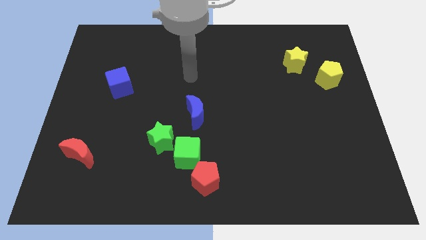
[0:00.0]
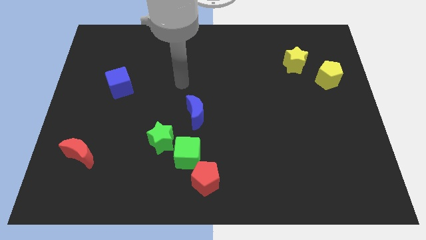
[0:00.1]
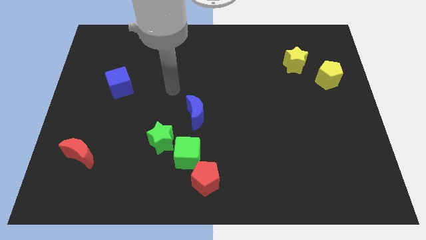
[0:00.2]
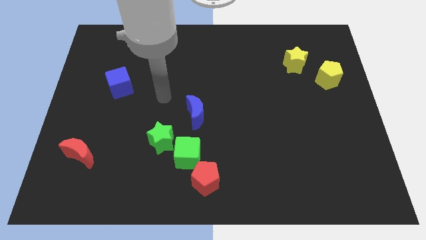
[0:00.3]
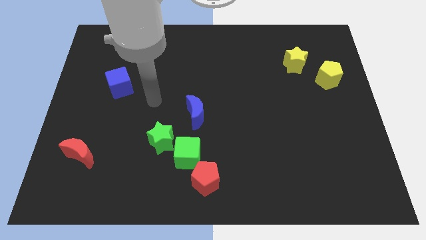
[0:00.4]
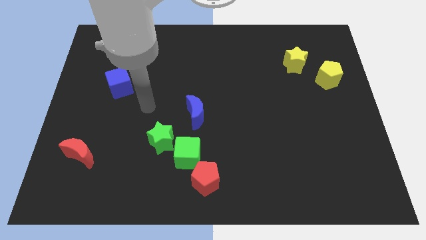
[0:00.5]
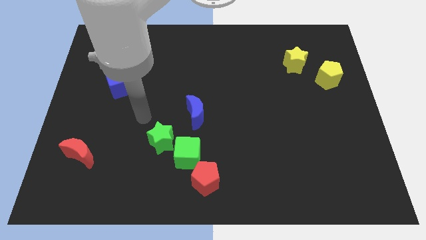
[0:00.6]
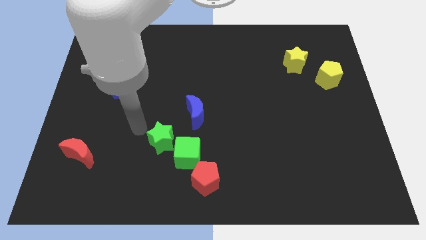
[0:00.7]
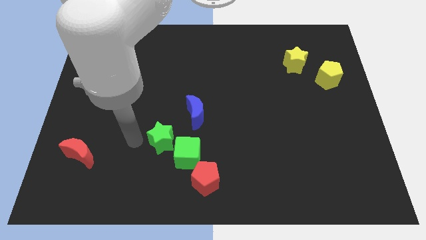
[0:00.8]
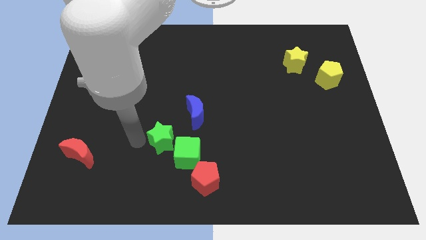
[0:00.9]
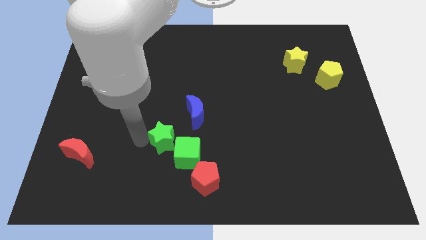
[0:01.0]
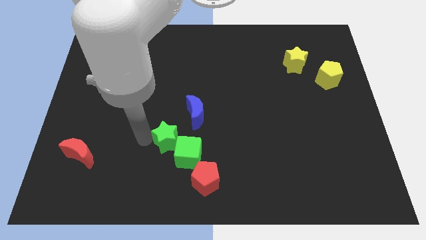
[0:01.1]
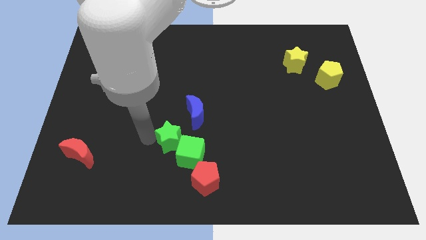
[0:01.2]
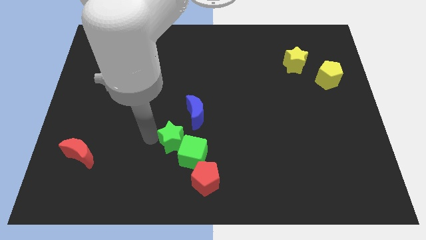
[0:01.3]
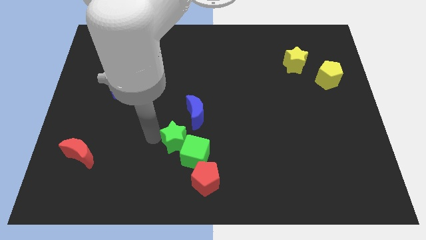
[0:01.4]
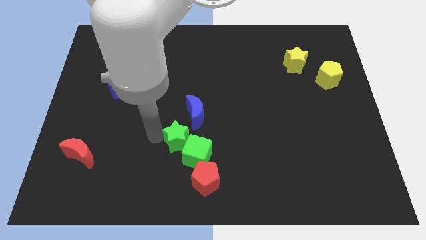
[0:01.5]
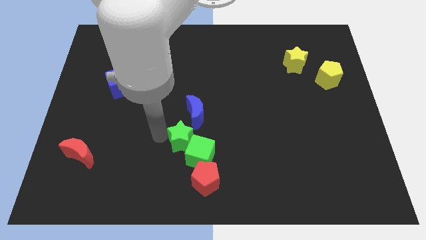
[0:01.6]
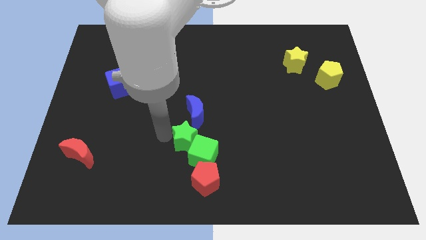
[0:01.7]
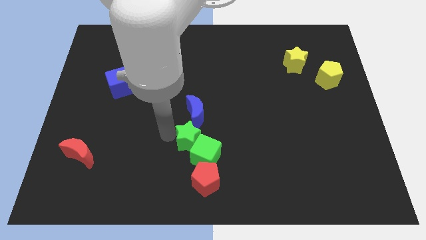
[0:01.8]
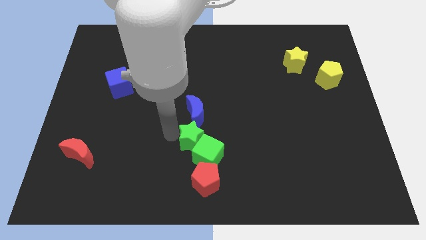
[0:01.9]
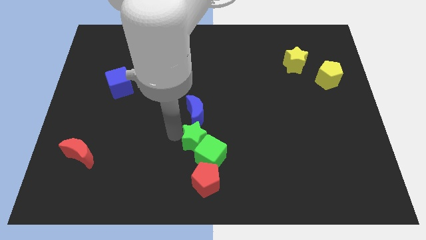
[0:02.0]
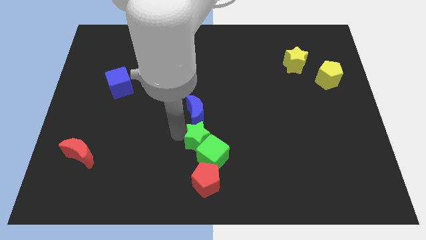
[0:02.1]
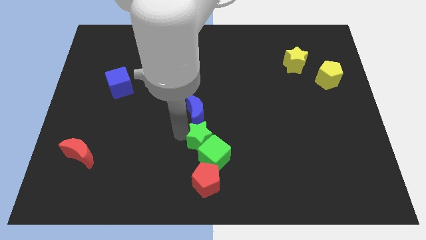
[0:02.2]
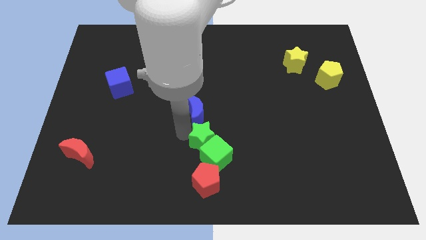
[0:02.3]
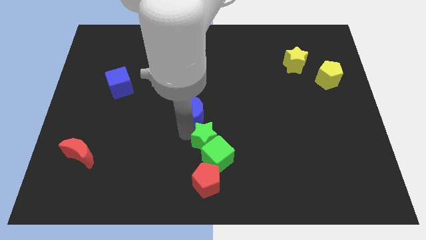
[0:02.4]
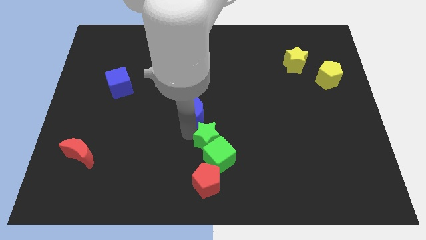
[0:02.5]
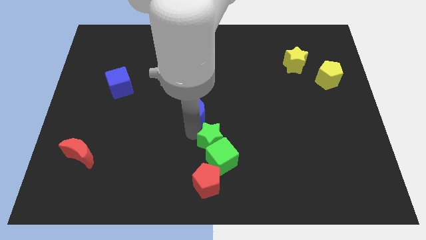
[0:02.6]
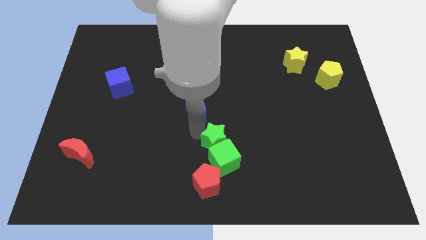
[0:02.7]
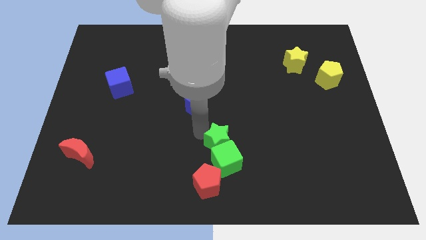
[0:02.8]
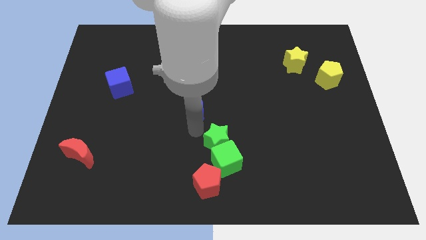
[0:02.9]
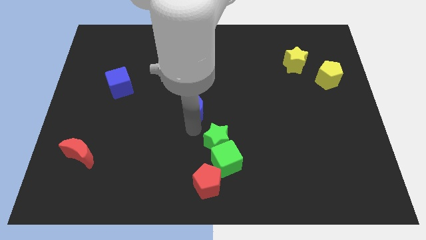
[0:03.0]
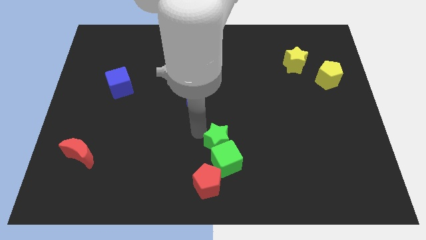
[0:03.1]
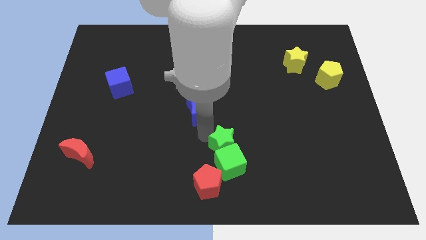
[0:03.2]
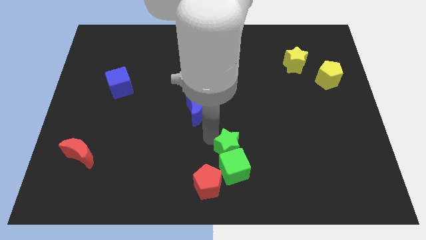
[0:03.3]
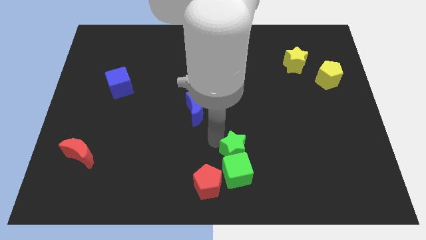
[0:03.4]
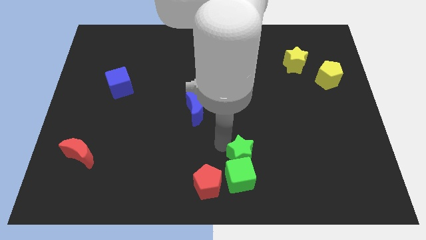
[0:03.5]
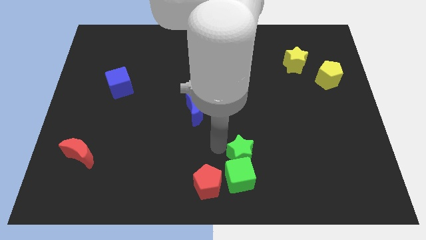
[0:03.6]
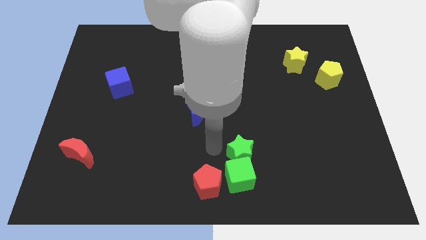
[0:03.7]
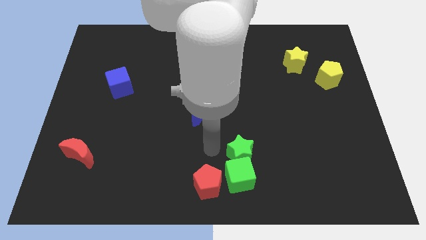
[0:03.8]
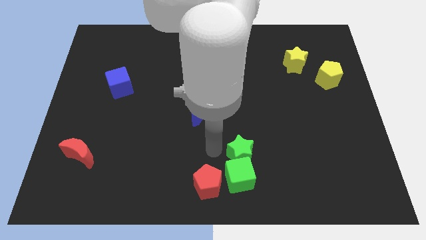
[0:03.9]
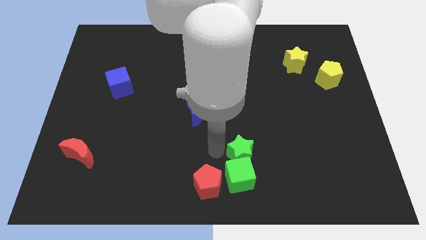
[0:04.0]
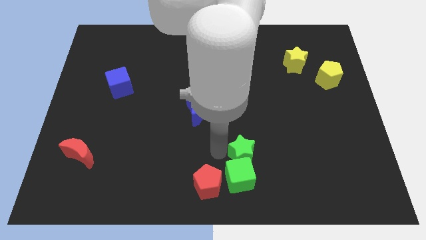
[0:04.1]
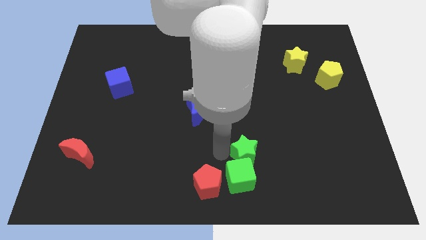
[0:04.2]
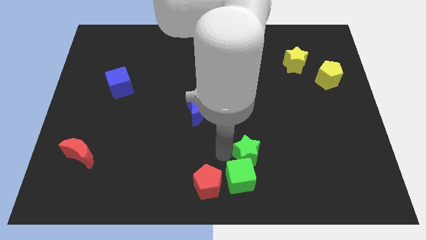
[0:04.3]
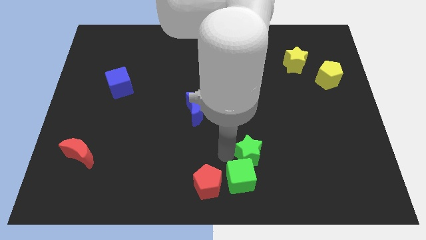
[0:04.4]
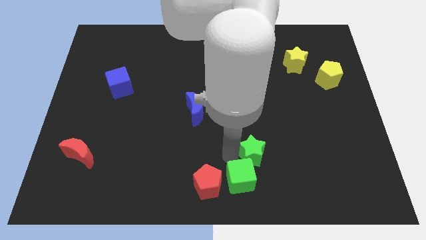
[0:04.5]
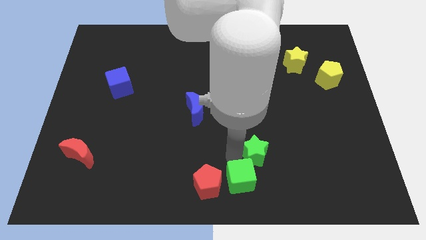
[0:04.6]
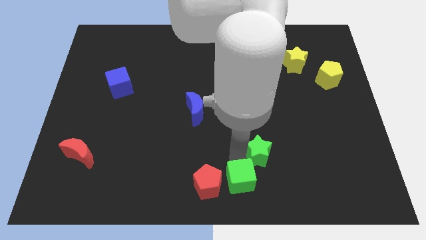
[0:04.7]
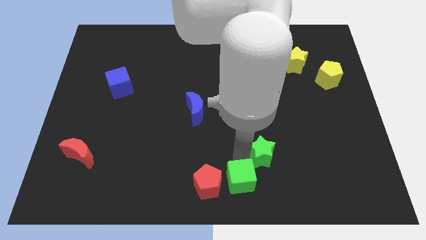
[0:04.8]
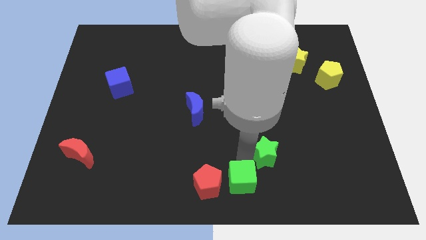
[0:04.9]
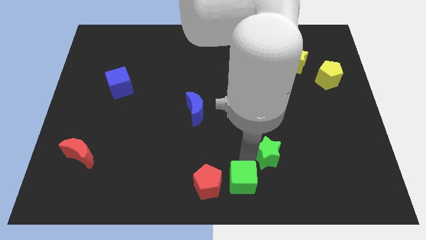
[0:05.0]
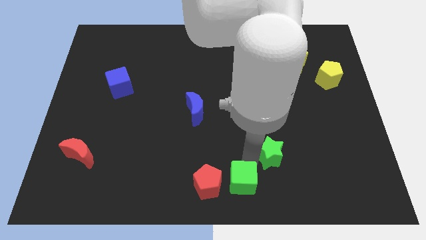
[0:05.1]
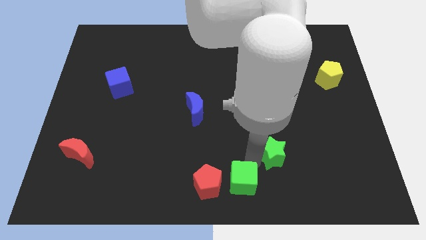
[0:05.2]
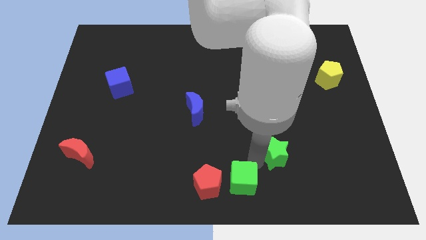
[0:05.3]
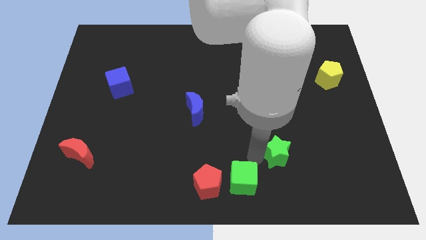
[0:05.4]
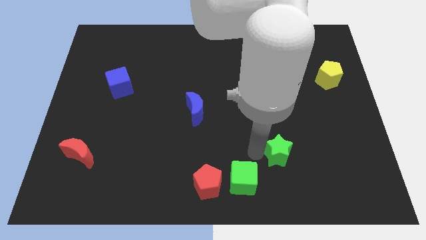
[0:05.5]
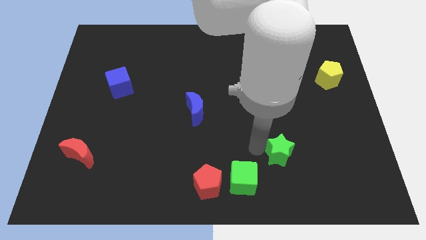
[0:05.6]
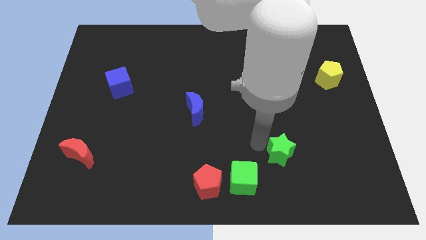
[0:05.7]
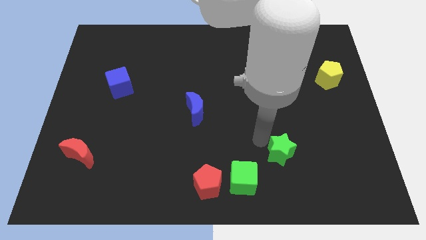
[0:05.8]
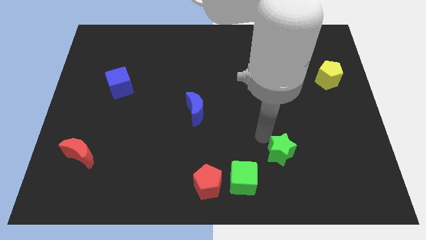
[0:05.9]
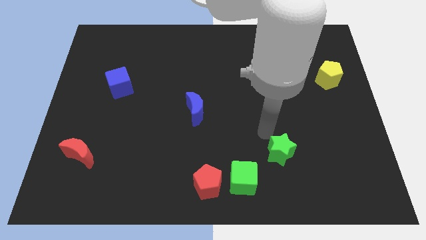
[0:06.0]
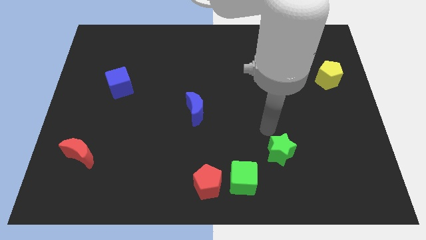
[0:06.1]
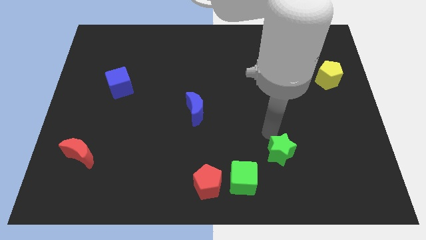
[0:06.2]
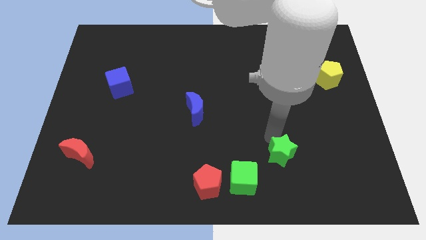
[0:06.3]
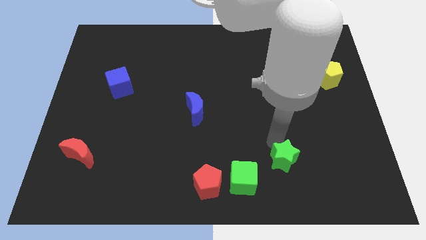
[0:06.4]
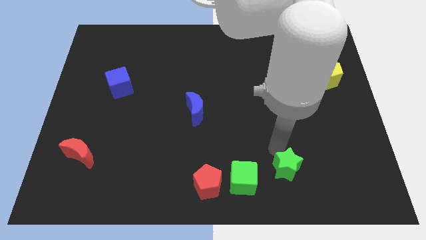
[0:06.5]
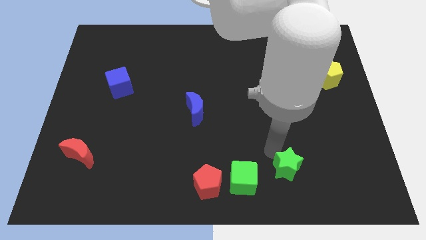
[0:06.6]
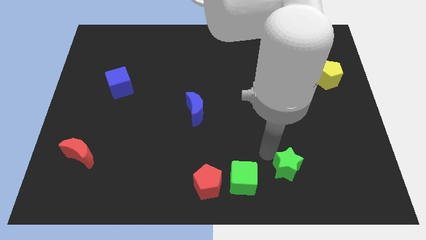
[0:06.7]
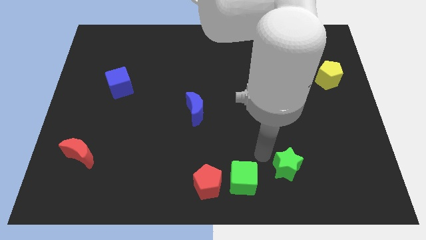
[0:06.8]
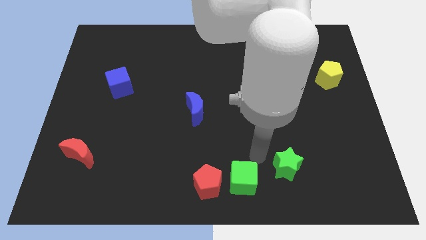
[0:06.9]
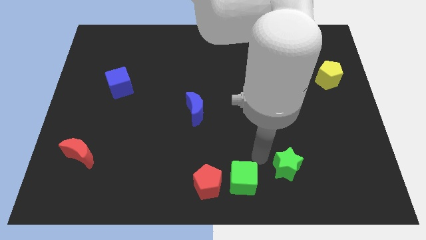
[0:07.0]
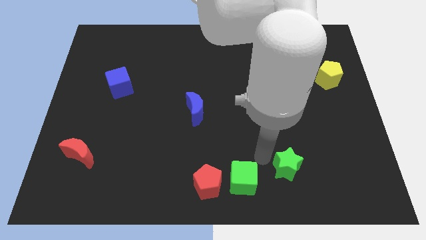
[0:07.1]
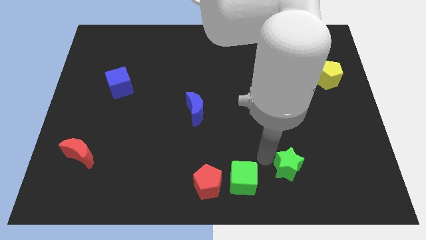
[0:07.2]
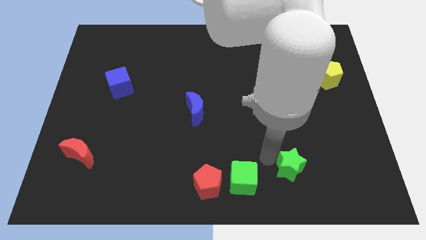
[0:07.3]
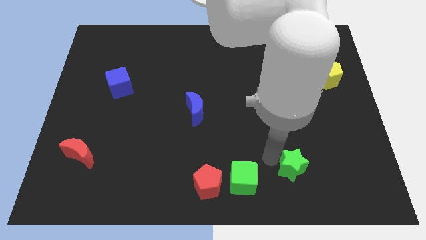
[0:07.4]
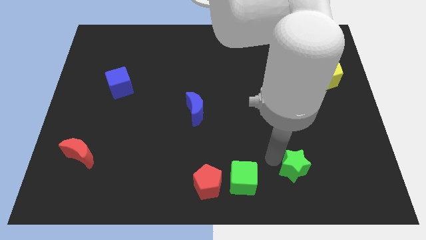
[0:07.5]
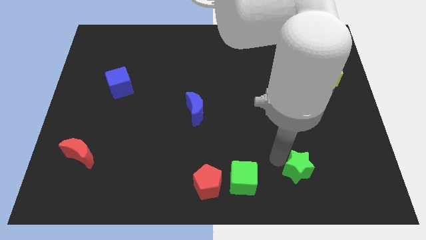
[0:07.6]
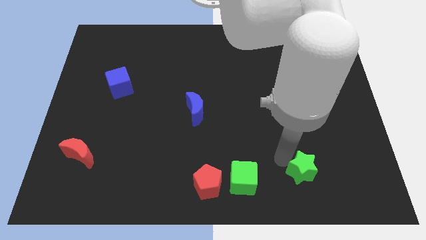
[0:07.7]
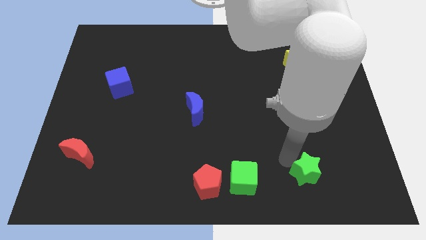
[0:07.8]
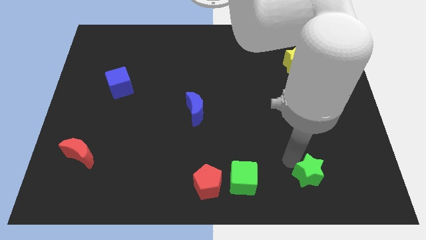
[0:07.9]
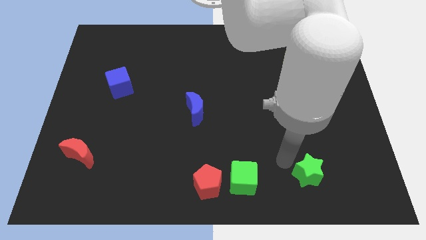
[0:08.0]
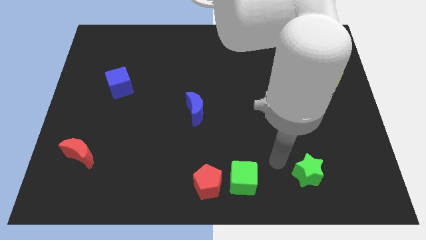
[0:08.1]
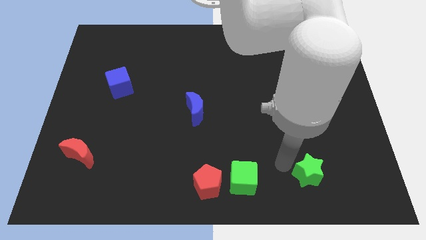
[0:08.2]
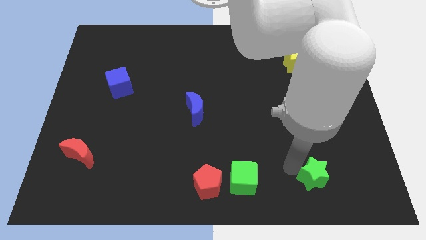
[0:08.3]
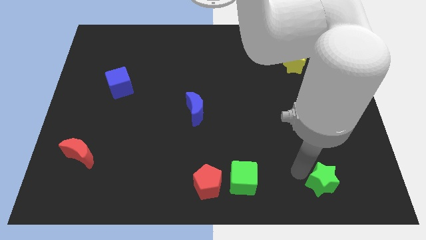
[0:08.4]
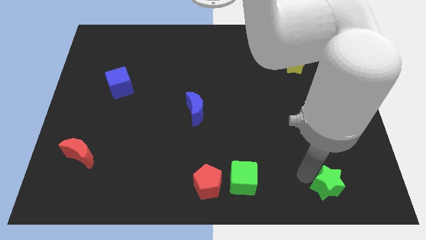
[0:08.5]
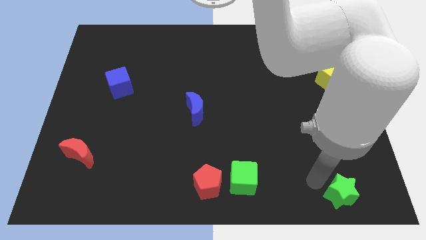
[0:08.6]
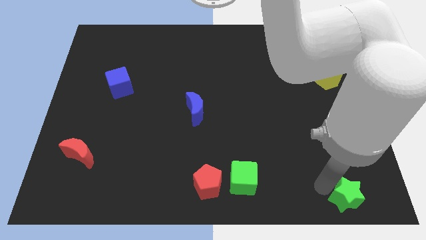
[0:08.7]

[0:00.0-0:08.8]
slide the green star to the lower right corner
